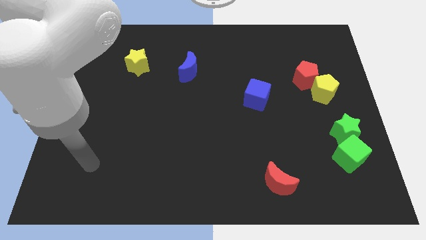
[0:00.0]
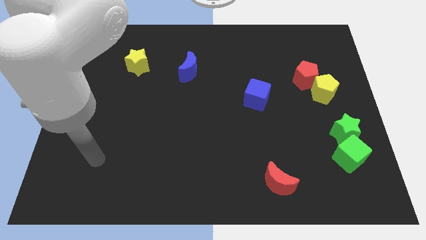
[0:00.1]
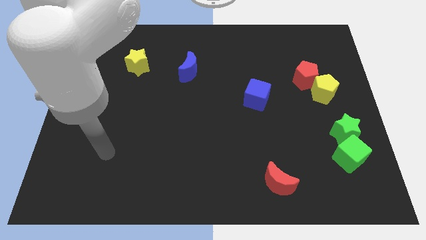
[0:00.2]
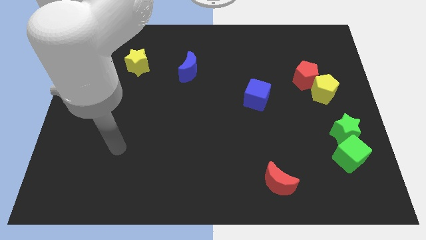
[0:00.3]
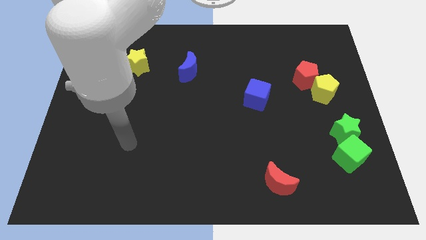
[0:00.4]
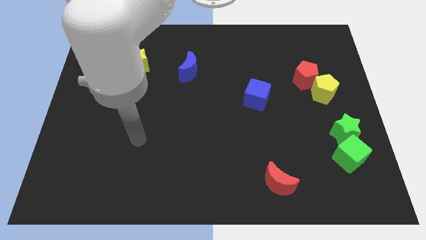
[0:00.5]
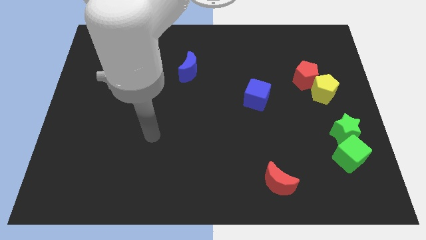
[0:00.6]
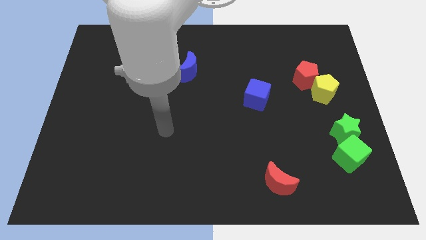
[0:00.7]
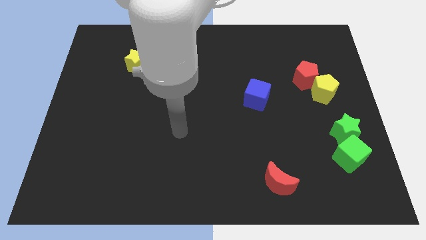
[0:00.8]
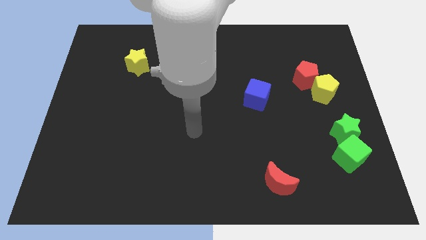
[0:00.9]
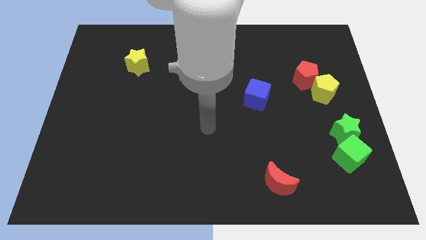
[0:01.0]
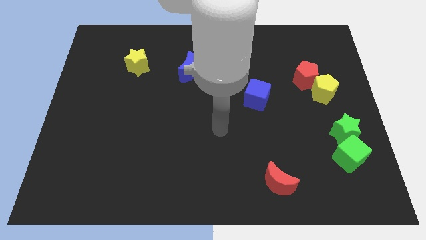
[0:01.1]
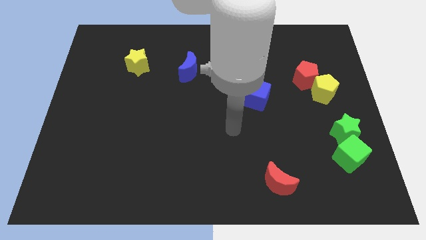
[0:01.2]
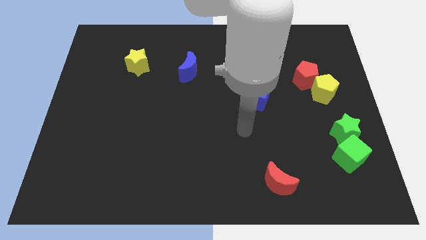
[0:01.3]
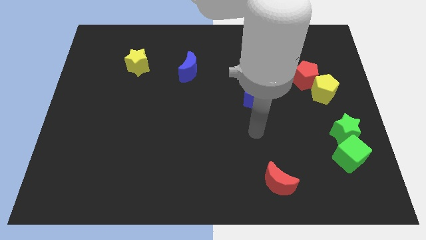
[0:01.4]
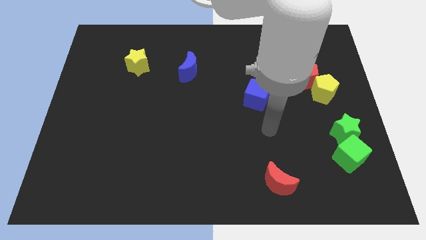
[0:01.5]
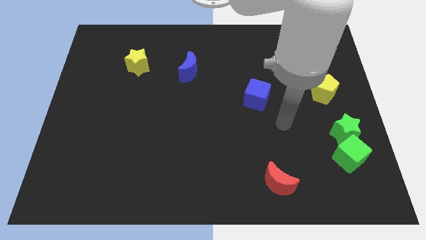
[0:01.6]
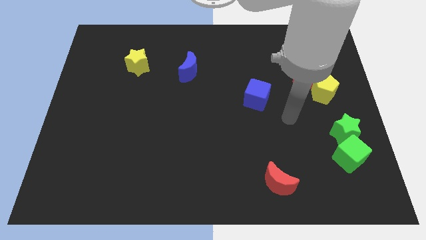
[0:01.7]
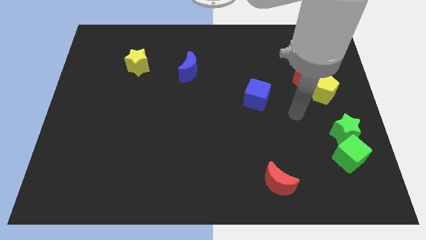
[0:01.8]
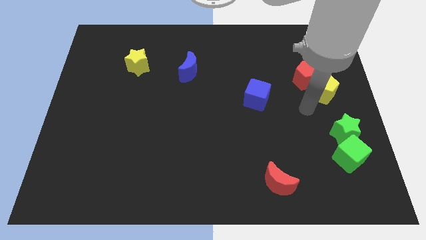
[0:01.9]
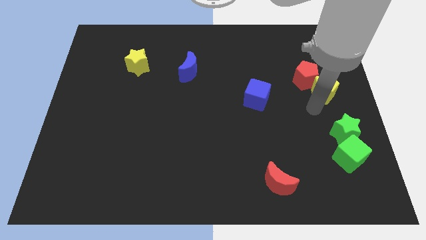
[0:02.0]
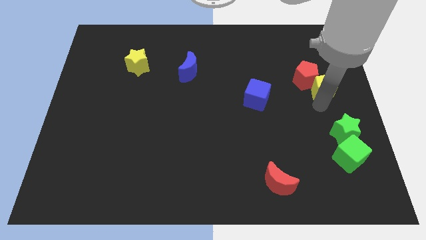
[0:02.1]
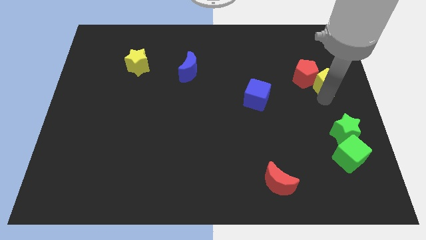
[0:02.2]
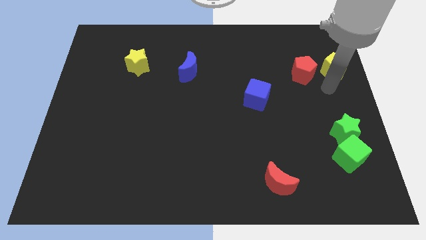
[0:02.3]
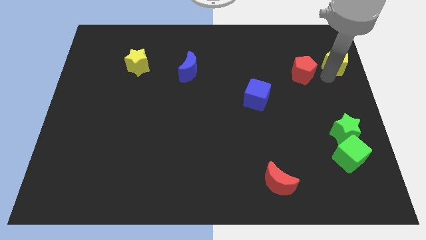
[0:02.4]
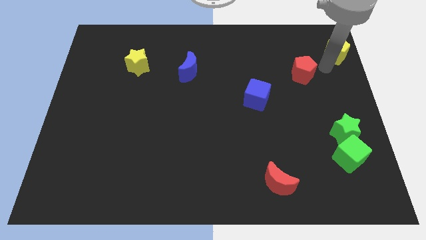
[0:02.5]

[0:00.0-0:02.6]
move the red pentagon away from the yellow pentagon

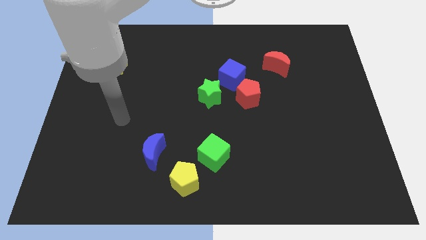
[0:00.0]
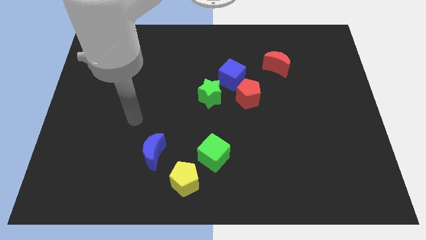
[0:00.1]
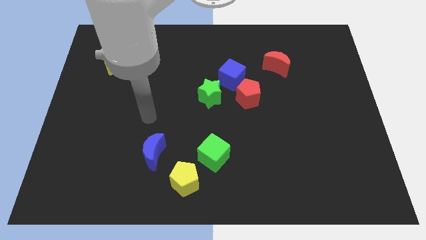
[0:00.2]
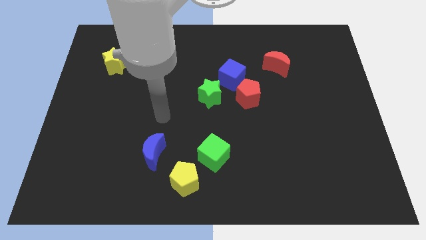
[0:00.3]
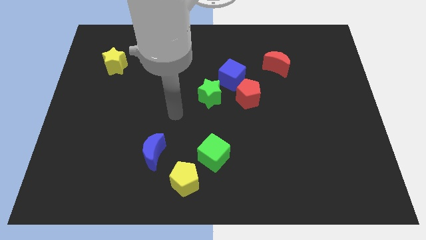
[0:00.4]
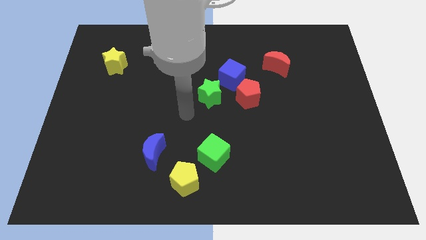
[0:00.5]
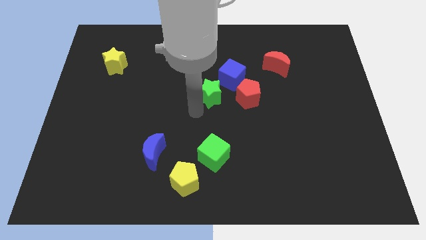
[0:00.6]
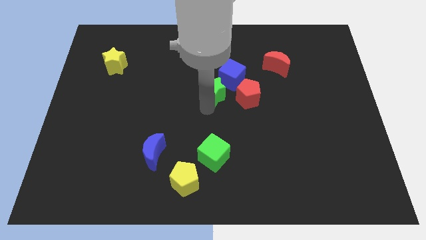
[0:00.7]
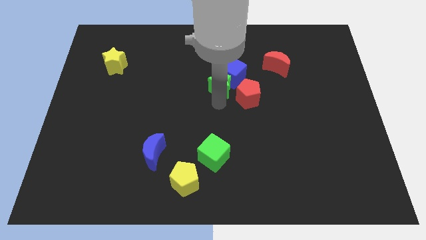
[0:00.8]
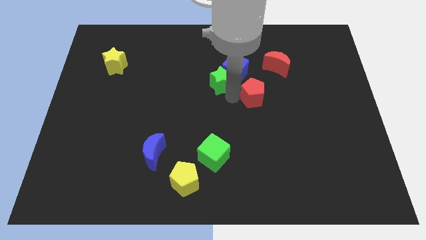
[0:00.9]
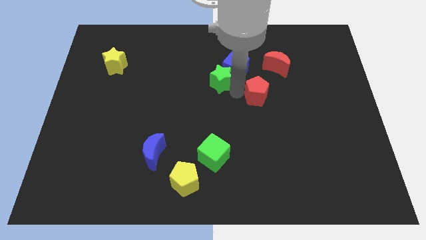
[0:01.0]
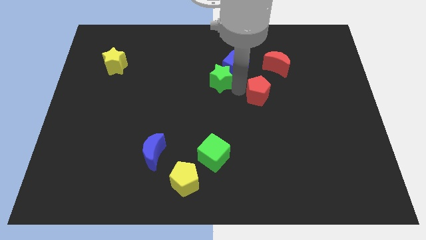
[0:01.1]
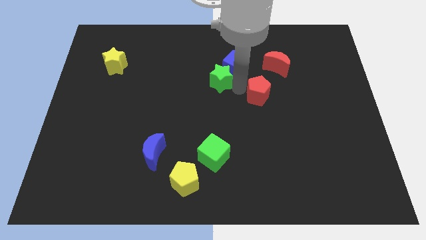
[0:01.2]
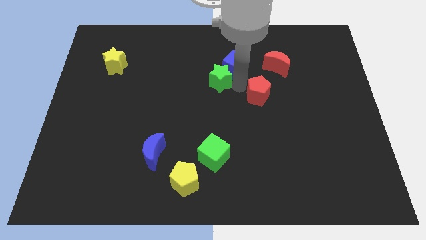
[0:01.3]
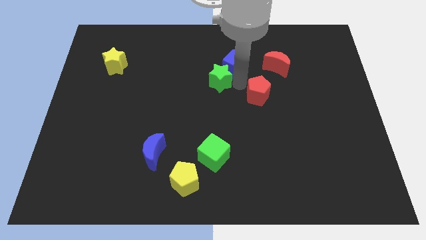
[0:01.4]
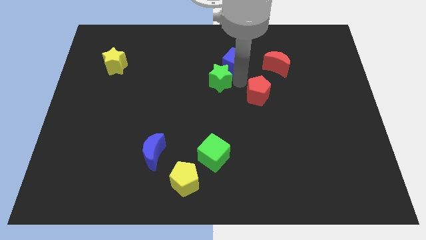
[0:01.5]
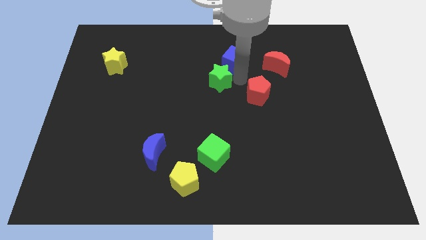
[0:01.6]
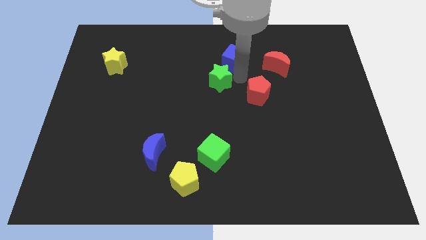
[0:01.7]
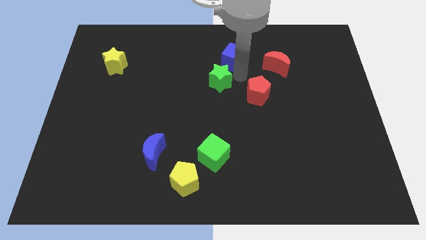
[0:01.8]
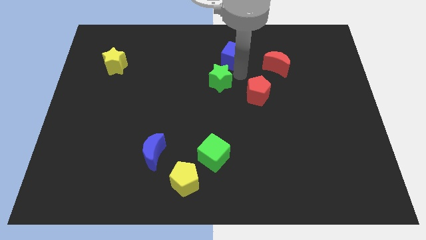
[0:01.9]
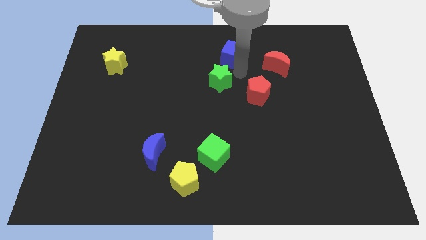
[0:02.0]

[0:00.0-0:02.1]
separate the blue cube from the red pentagon and green star

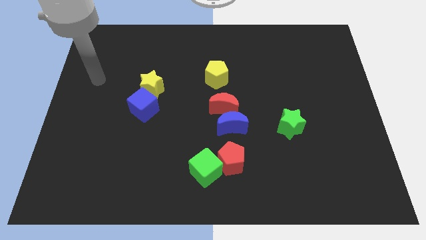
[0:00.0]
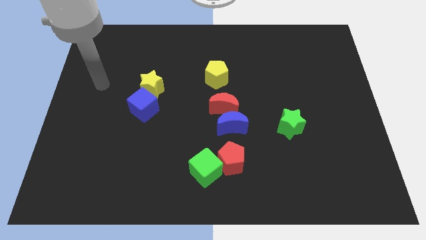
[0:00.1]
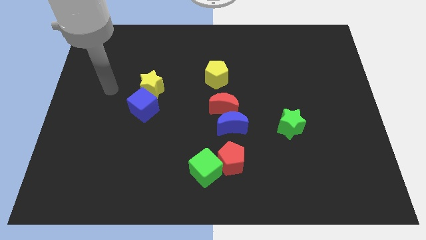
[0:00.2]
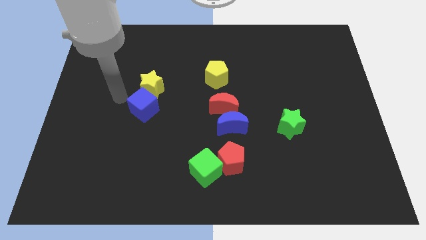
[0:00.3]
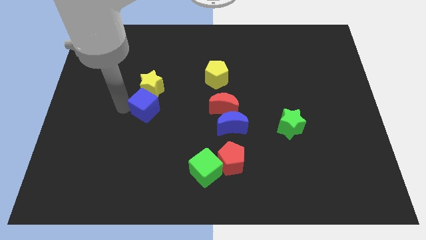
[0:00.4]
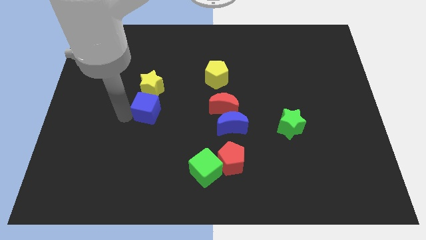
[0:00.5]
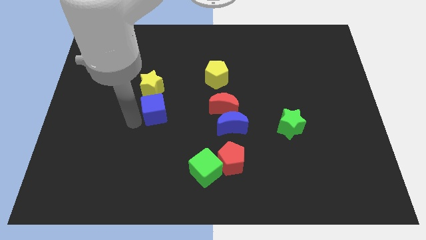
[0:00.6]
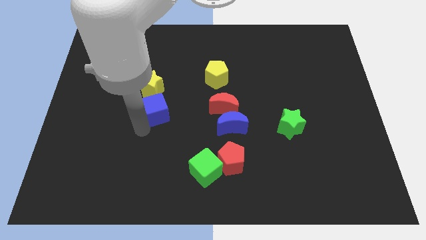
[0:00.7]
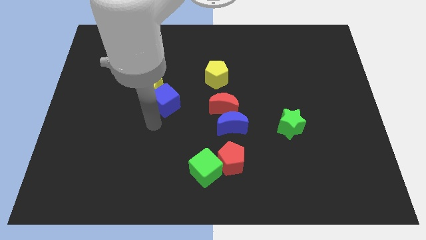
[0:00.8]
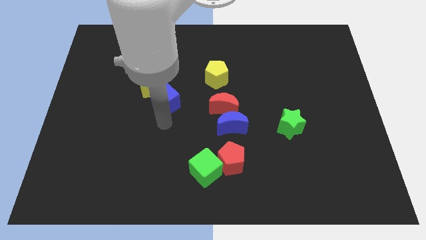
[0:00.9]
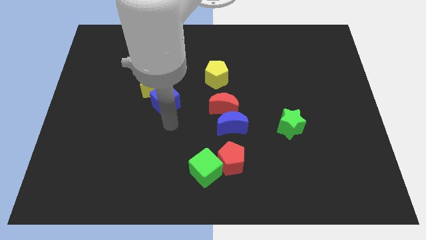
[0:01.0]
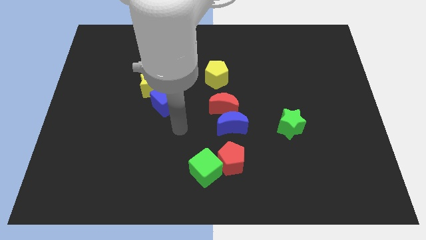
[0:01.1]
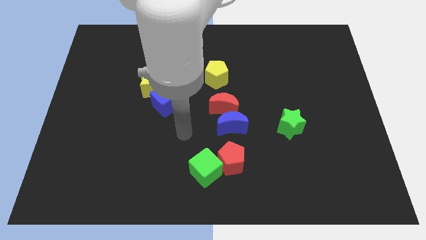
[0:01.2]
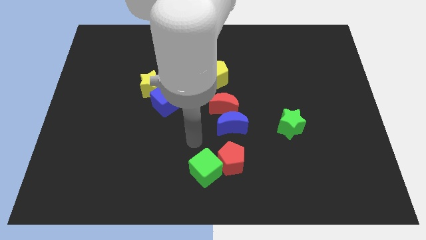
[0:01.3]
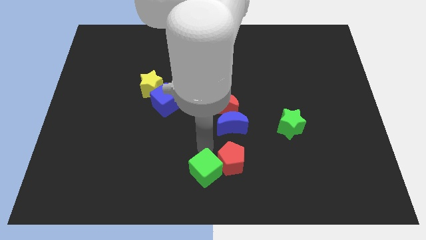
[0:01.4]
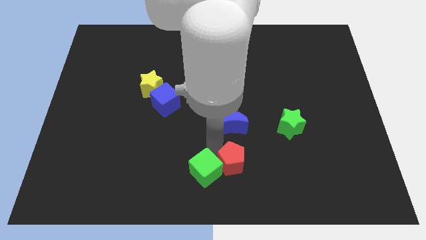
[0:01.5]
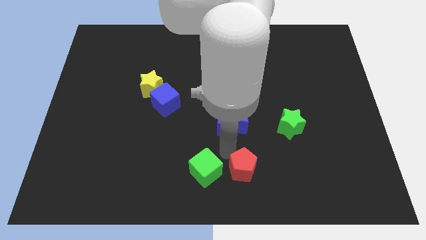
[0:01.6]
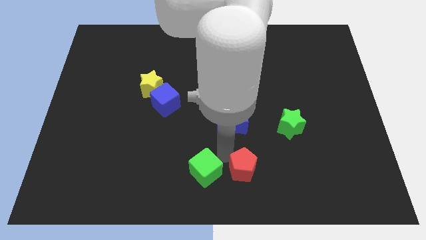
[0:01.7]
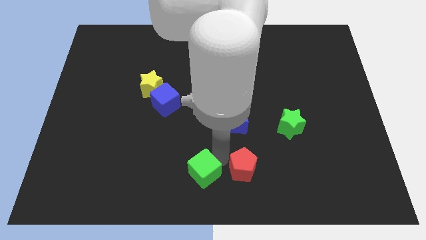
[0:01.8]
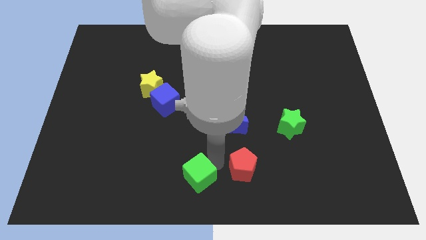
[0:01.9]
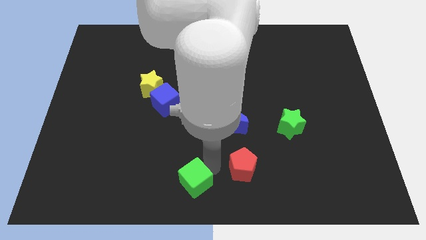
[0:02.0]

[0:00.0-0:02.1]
pull the green cube apart from the red pentagon

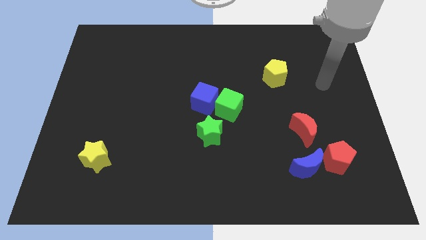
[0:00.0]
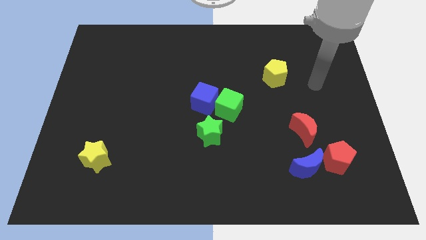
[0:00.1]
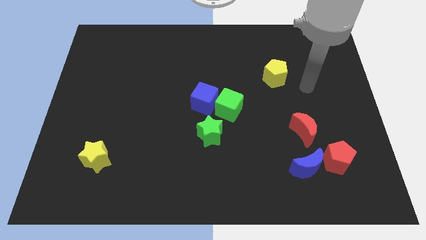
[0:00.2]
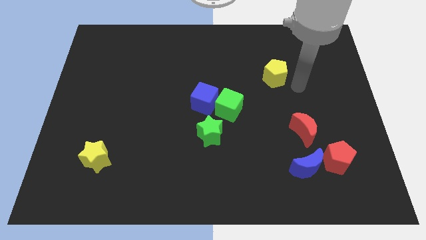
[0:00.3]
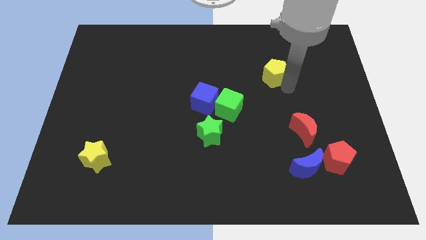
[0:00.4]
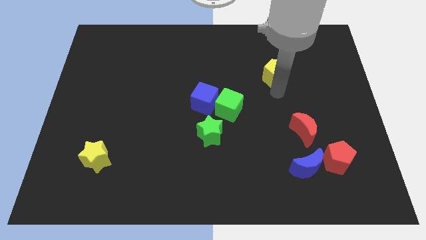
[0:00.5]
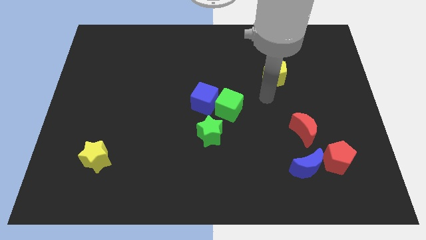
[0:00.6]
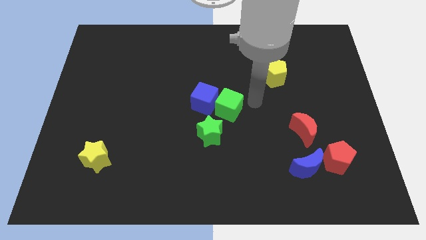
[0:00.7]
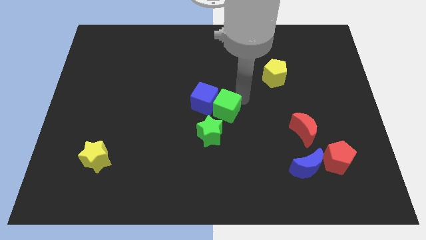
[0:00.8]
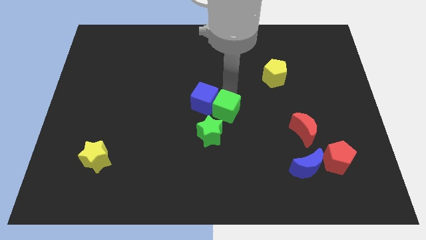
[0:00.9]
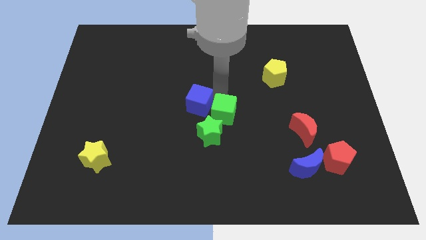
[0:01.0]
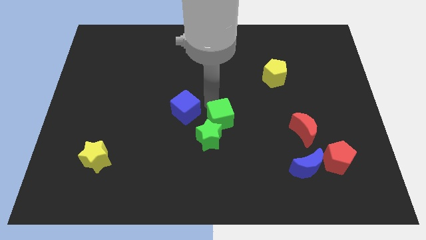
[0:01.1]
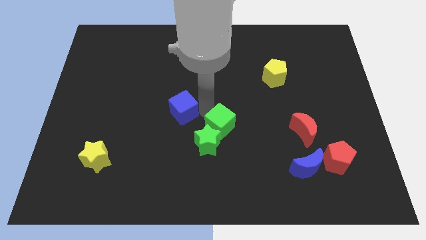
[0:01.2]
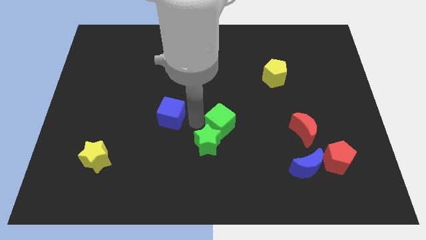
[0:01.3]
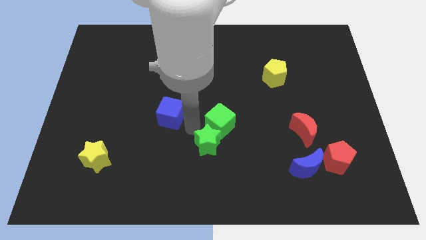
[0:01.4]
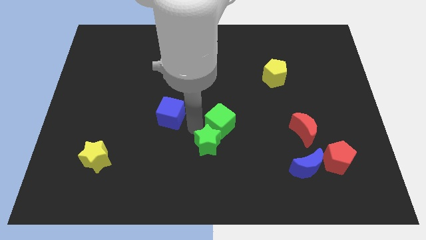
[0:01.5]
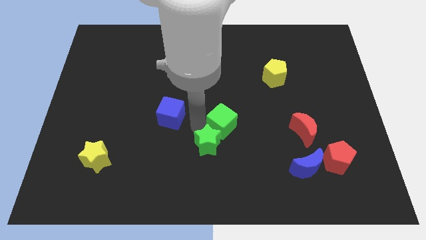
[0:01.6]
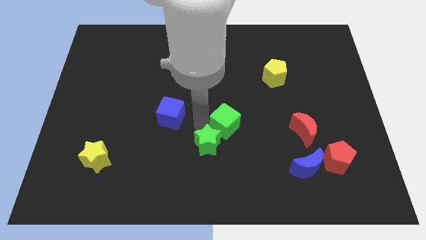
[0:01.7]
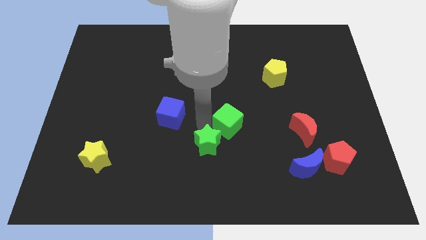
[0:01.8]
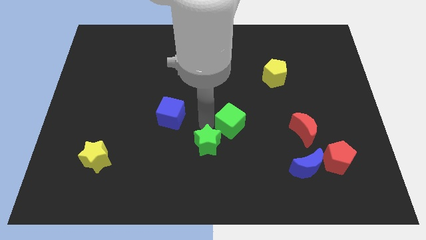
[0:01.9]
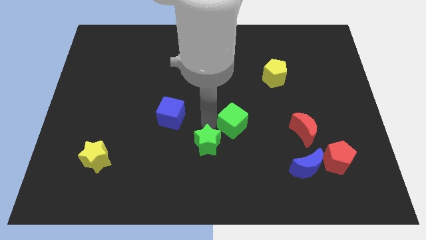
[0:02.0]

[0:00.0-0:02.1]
move the green cube away from the blue cube and green star

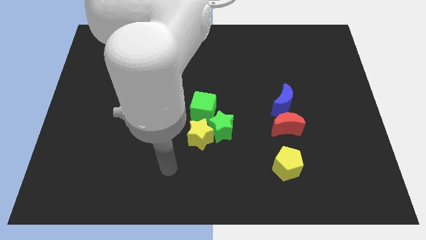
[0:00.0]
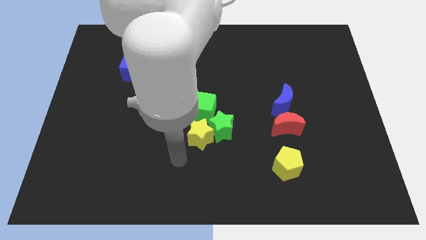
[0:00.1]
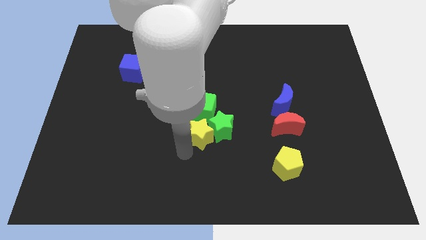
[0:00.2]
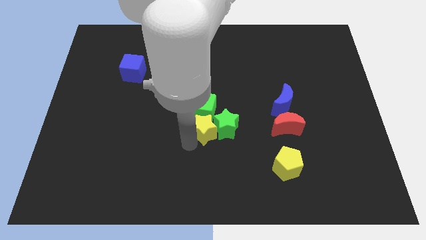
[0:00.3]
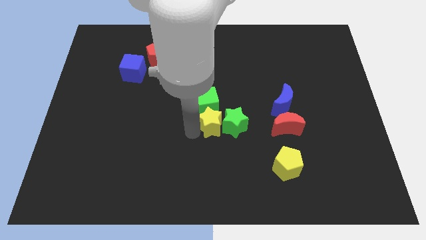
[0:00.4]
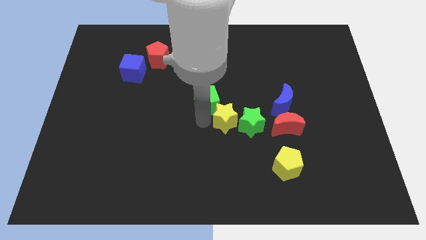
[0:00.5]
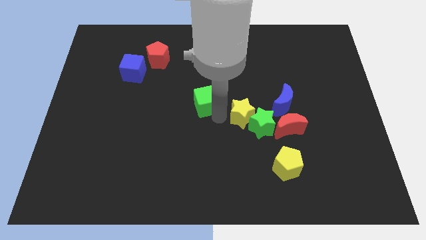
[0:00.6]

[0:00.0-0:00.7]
move the green star away from the yellow star and green cube
